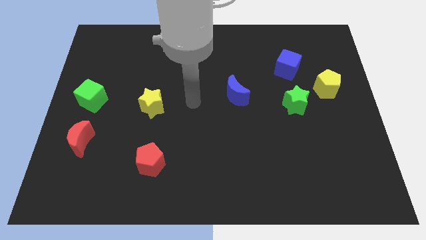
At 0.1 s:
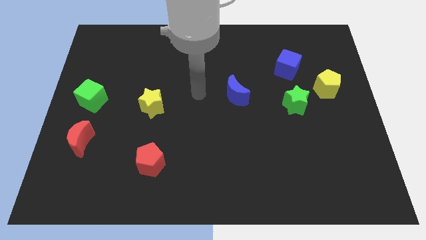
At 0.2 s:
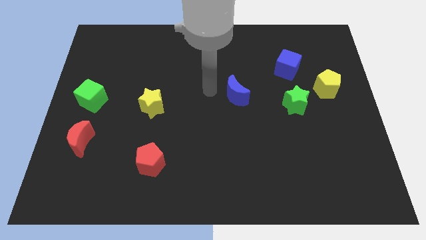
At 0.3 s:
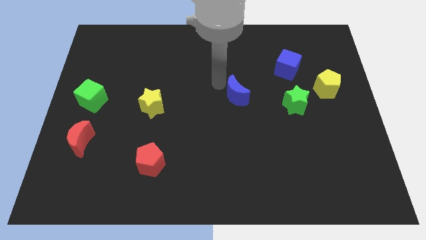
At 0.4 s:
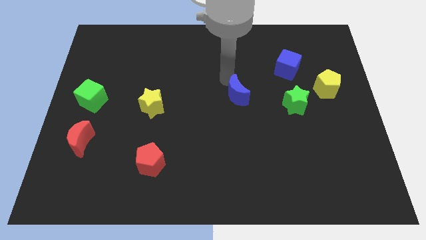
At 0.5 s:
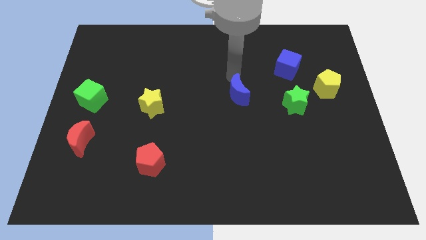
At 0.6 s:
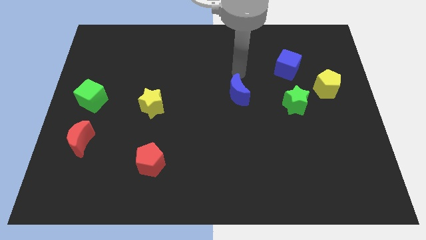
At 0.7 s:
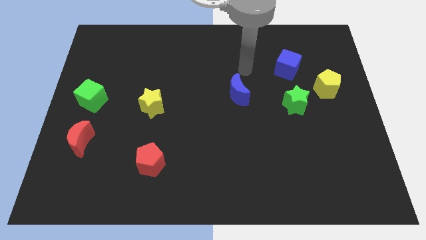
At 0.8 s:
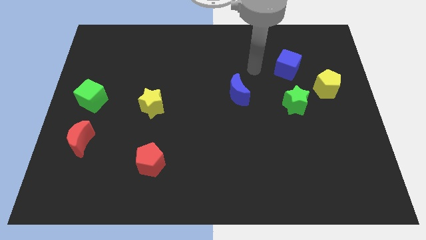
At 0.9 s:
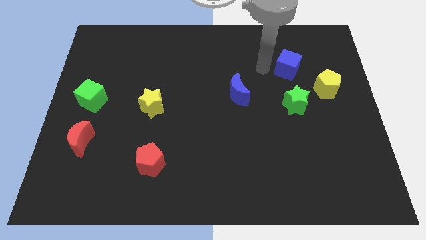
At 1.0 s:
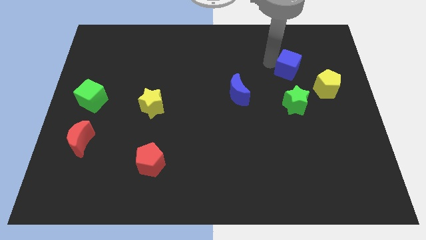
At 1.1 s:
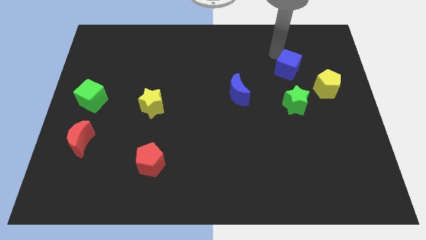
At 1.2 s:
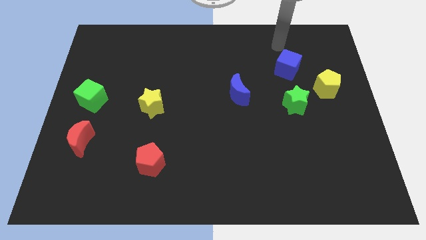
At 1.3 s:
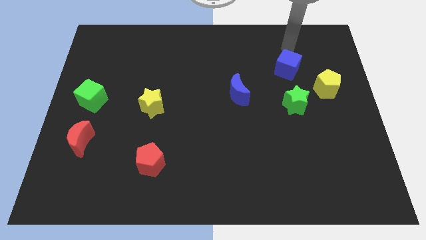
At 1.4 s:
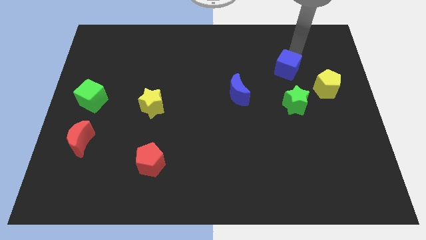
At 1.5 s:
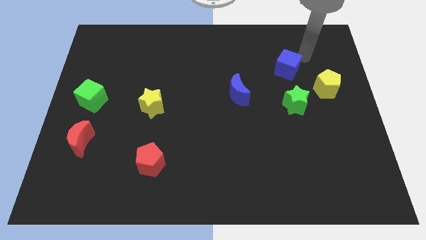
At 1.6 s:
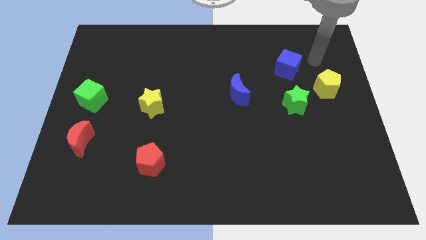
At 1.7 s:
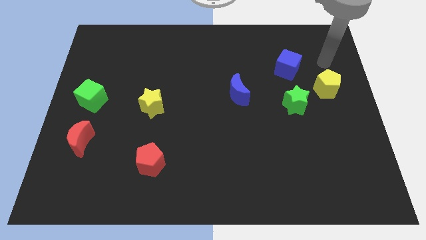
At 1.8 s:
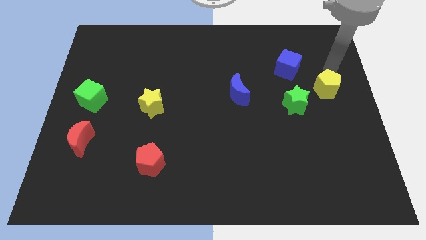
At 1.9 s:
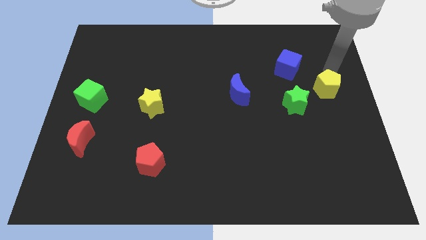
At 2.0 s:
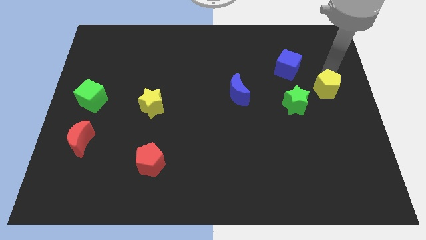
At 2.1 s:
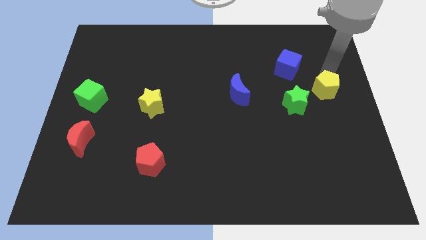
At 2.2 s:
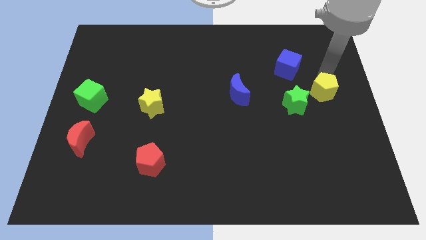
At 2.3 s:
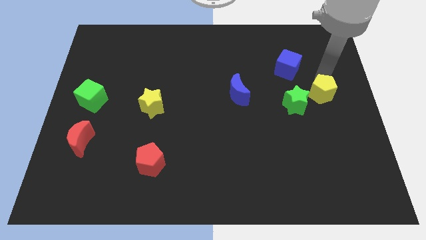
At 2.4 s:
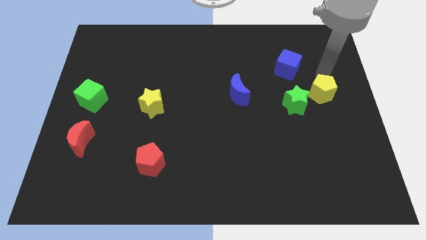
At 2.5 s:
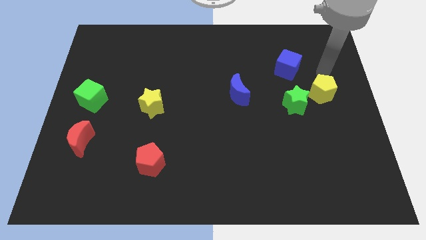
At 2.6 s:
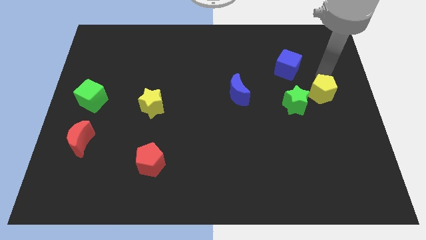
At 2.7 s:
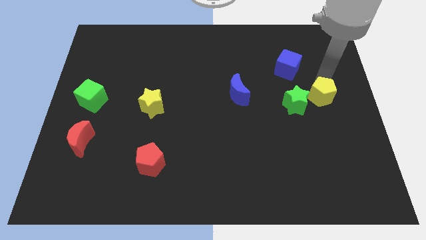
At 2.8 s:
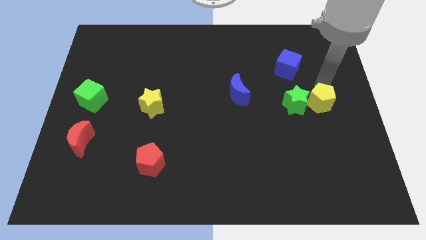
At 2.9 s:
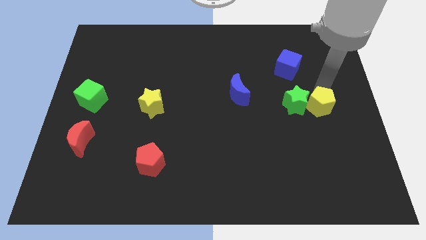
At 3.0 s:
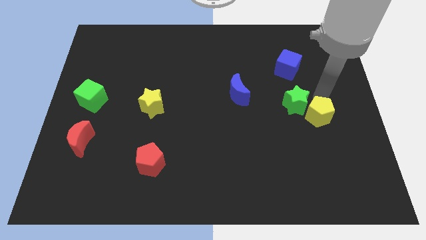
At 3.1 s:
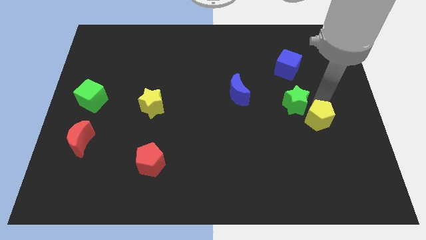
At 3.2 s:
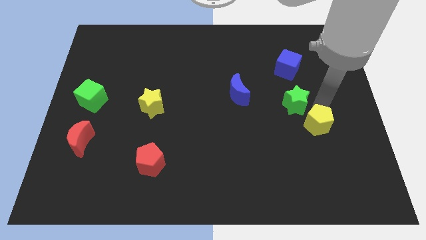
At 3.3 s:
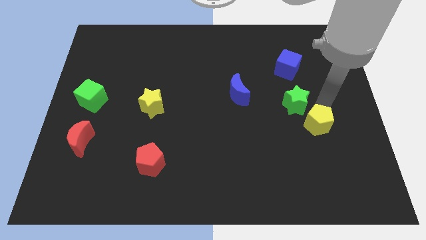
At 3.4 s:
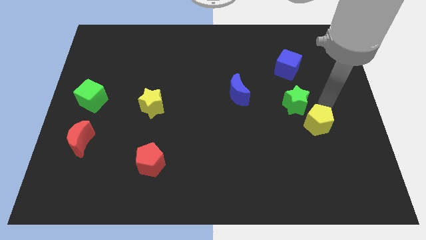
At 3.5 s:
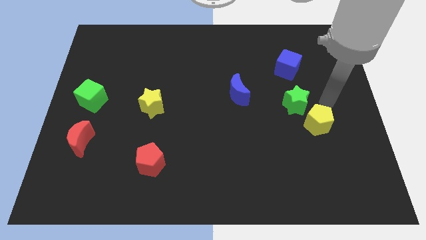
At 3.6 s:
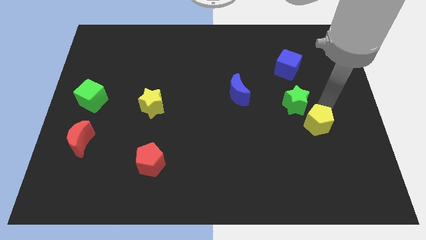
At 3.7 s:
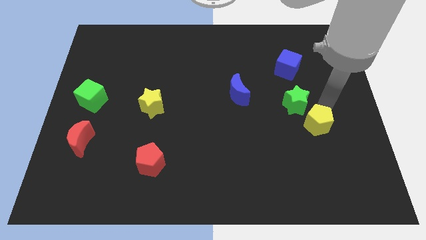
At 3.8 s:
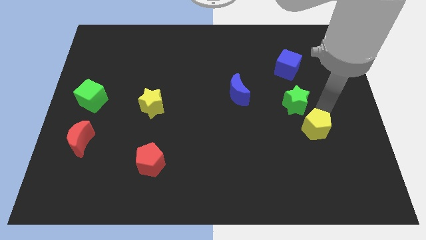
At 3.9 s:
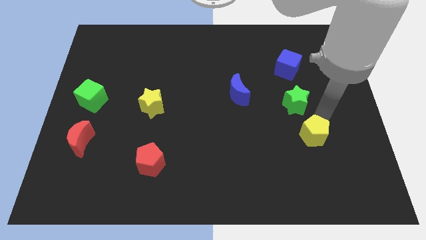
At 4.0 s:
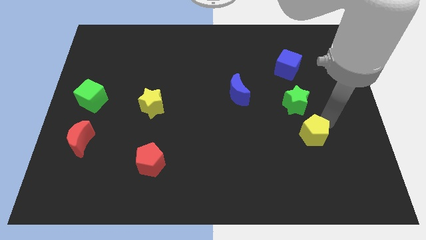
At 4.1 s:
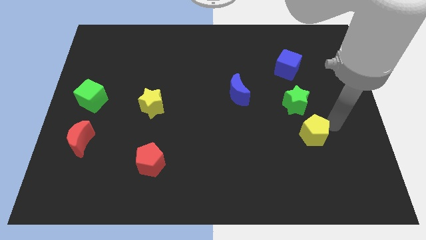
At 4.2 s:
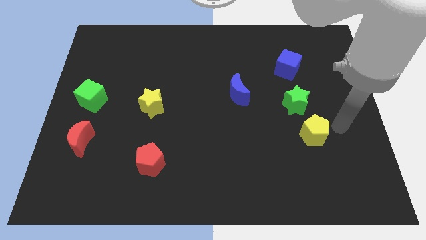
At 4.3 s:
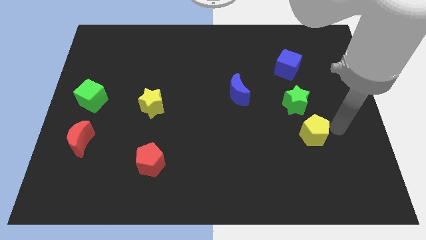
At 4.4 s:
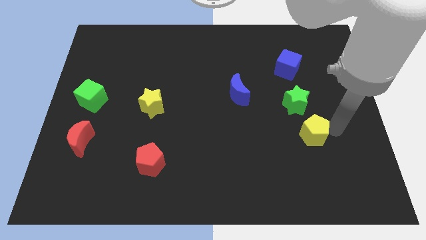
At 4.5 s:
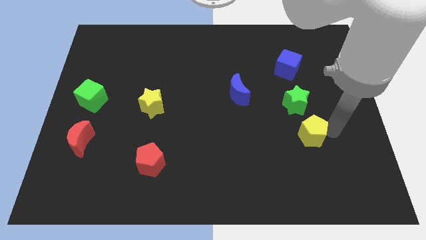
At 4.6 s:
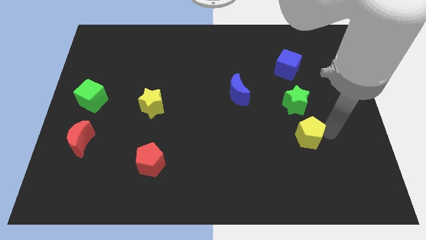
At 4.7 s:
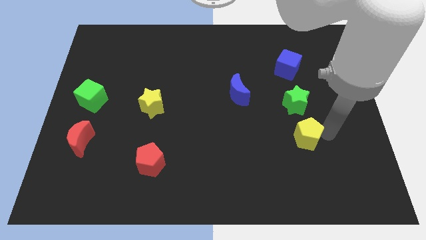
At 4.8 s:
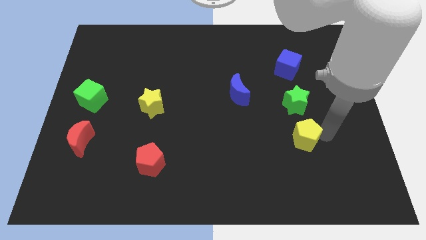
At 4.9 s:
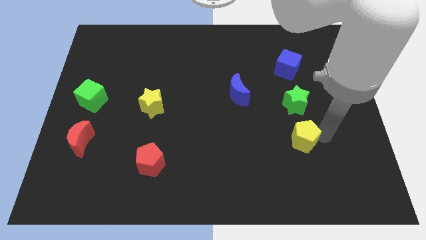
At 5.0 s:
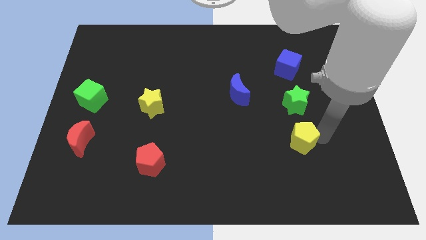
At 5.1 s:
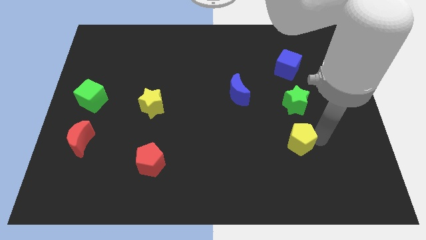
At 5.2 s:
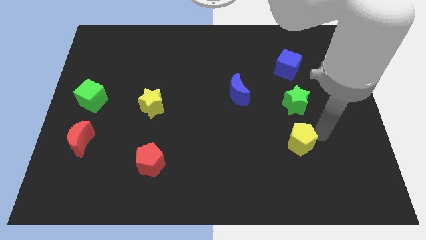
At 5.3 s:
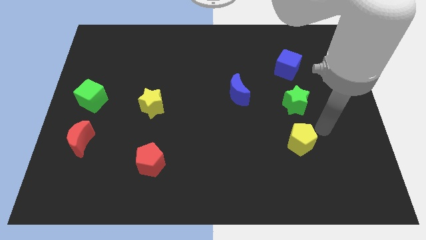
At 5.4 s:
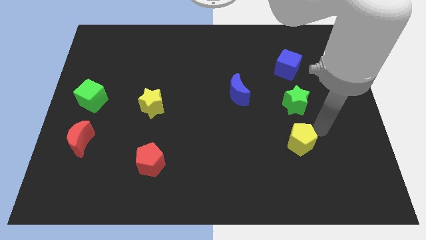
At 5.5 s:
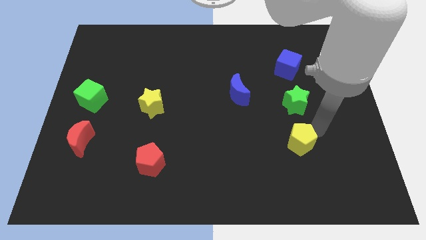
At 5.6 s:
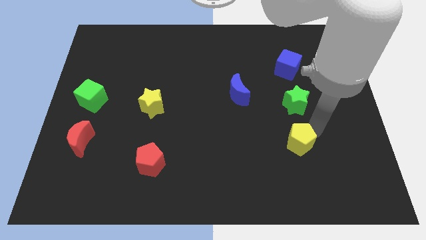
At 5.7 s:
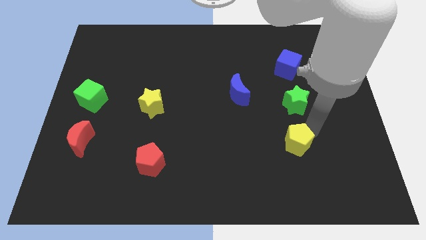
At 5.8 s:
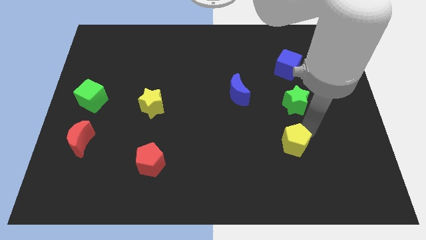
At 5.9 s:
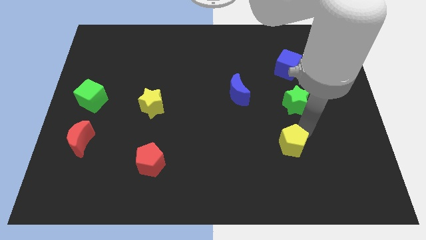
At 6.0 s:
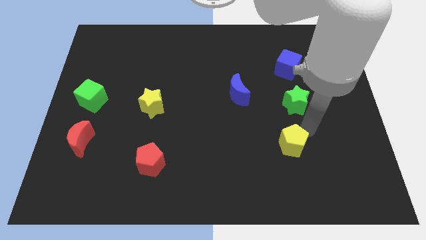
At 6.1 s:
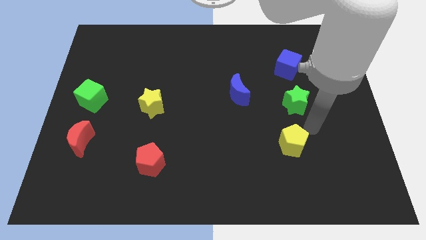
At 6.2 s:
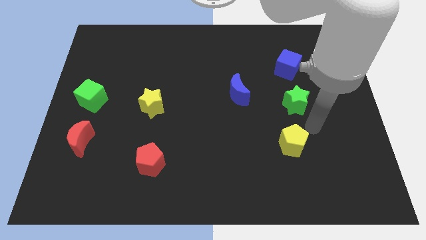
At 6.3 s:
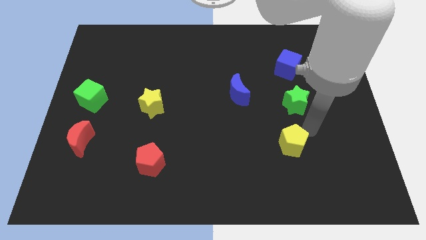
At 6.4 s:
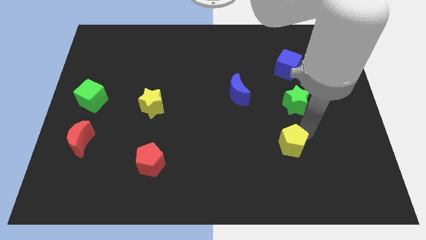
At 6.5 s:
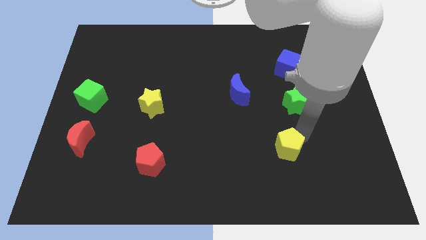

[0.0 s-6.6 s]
push the yellow pentagon downwards and left

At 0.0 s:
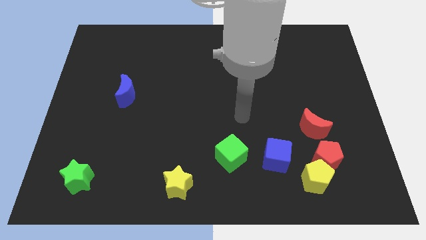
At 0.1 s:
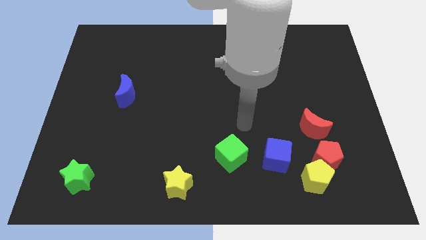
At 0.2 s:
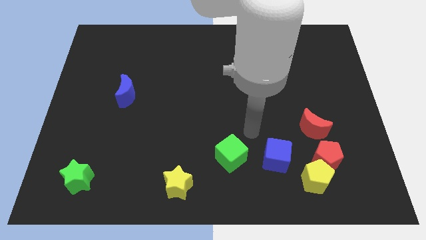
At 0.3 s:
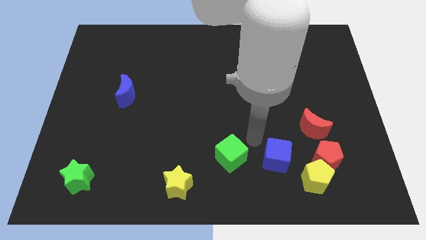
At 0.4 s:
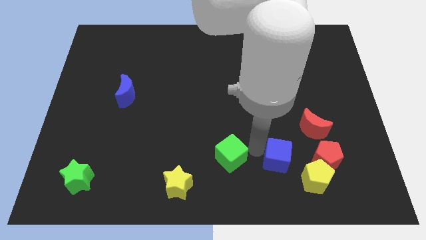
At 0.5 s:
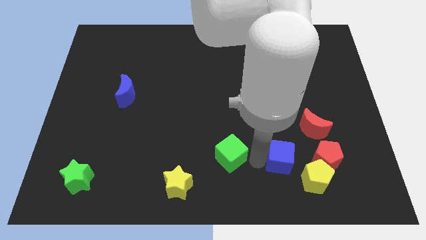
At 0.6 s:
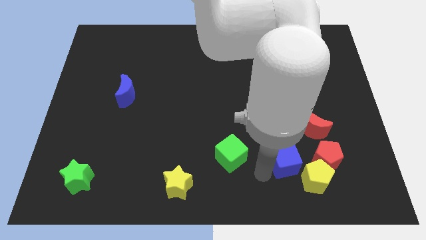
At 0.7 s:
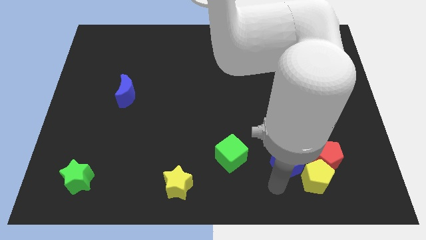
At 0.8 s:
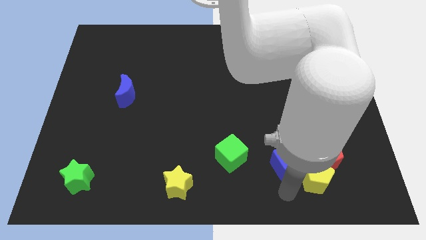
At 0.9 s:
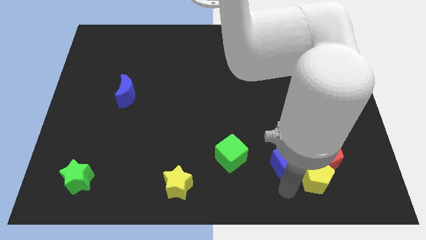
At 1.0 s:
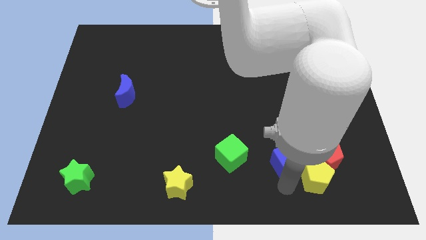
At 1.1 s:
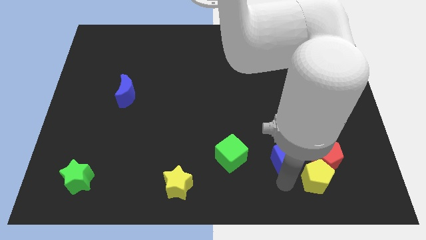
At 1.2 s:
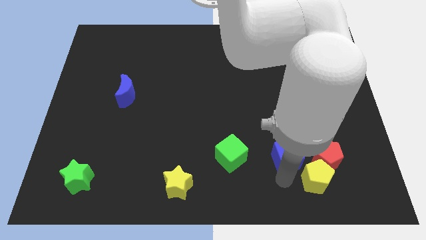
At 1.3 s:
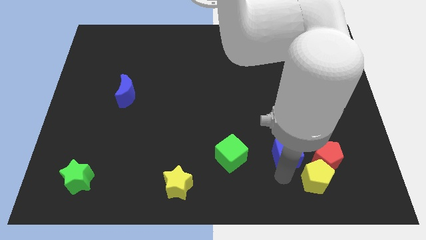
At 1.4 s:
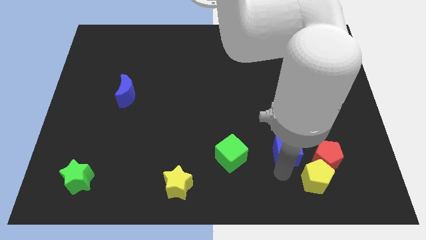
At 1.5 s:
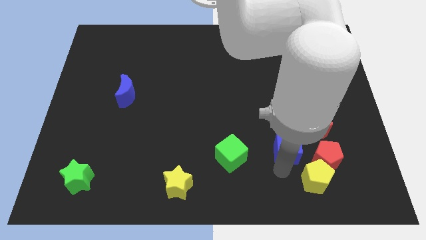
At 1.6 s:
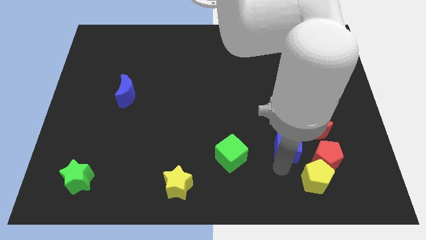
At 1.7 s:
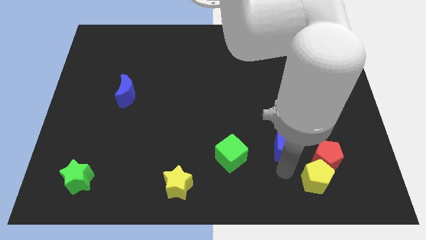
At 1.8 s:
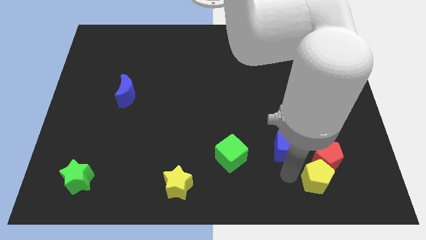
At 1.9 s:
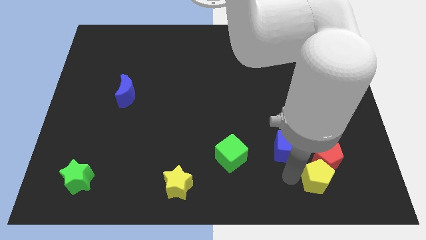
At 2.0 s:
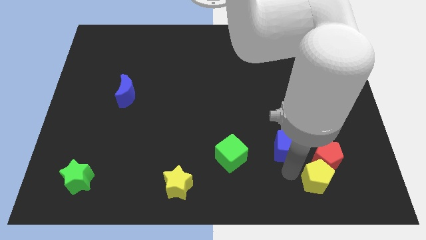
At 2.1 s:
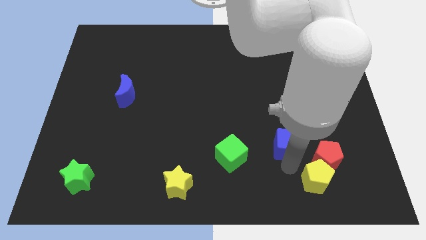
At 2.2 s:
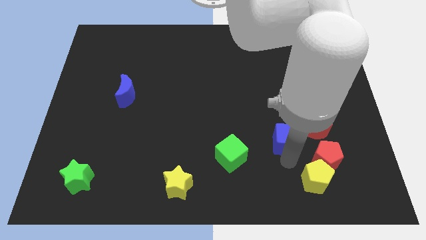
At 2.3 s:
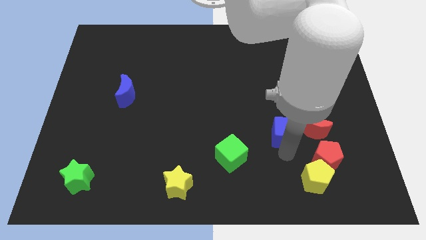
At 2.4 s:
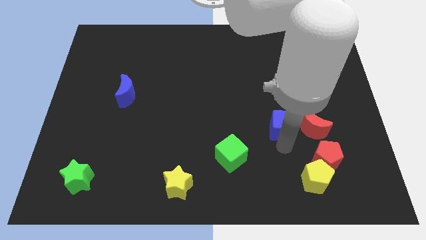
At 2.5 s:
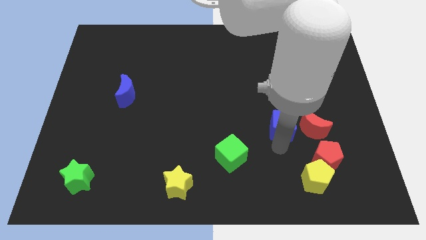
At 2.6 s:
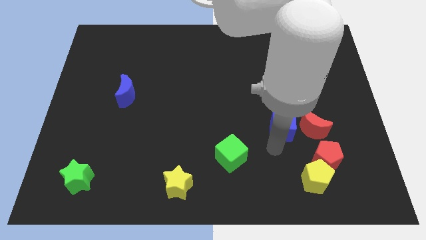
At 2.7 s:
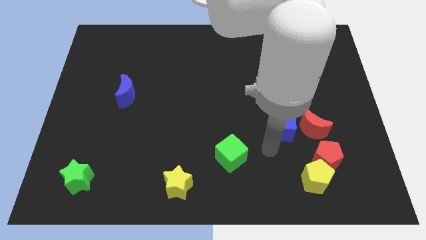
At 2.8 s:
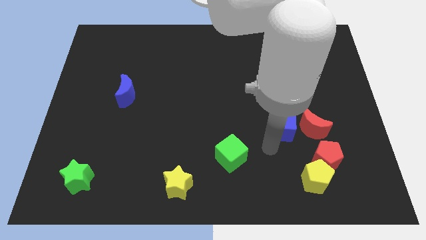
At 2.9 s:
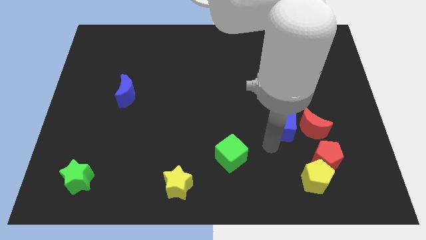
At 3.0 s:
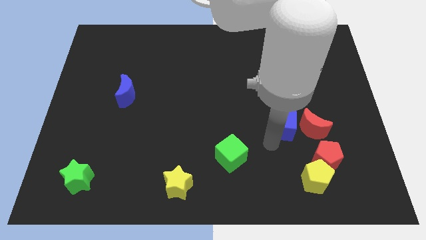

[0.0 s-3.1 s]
slightly push the blue cube upwards and to the right
